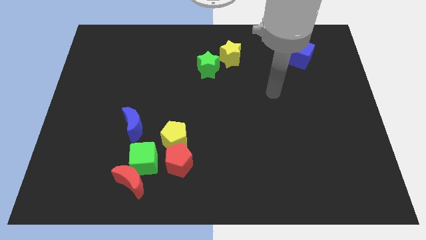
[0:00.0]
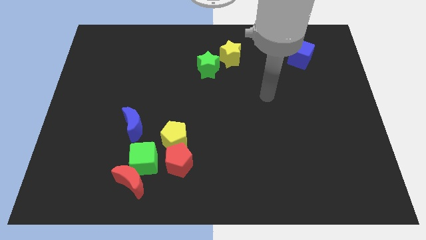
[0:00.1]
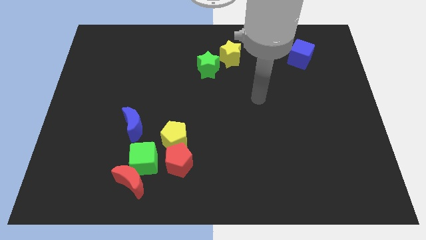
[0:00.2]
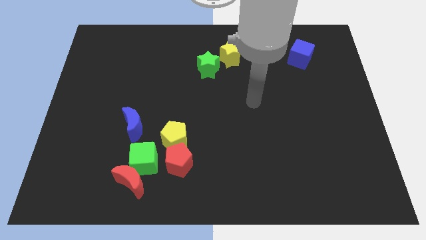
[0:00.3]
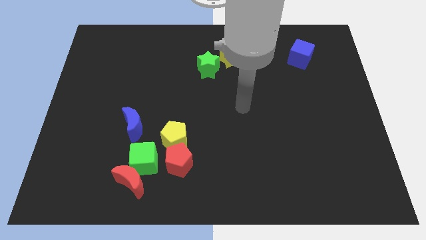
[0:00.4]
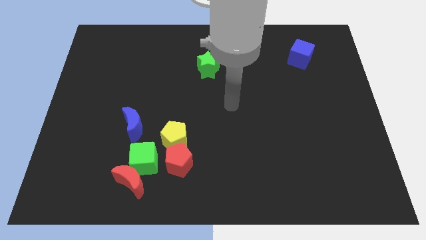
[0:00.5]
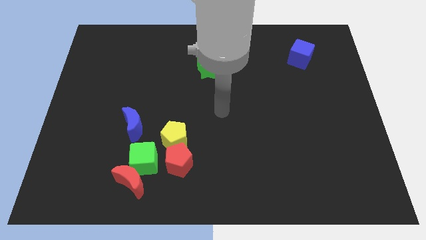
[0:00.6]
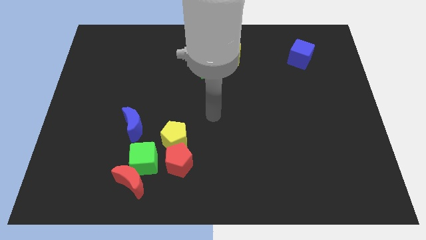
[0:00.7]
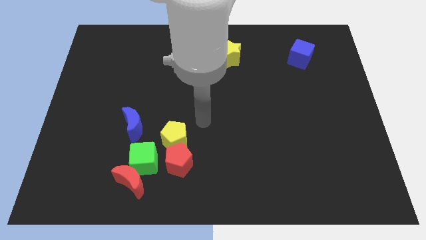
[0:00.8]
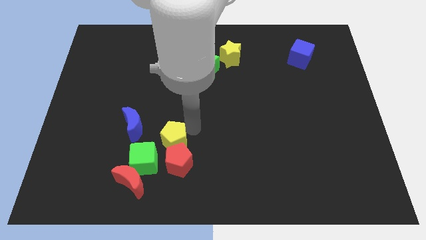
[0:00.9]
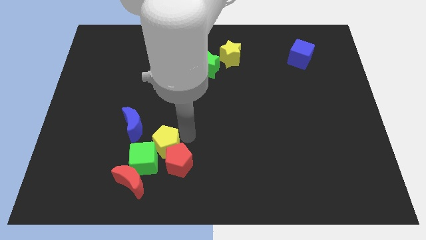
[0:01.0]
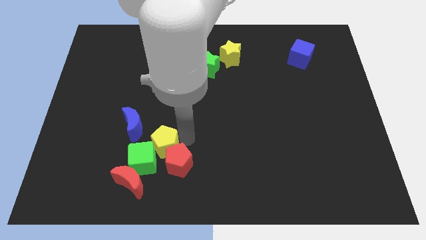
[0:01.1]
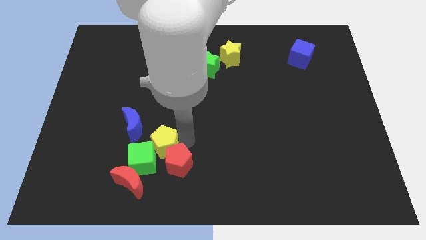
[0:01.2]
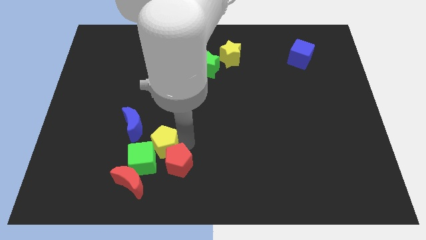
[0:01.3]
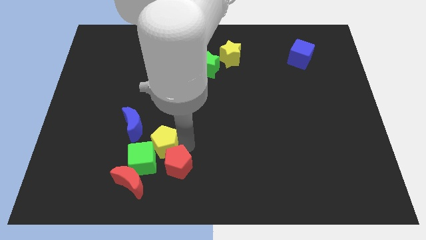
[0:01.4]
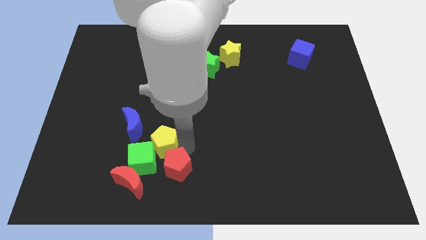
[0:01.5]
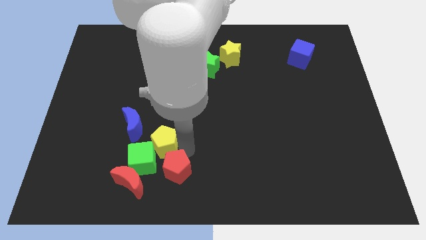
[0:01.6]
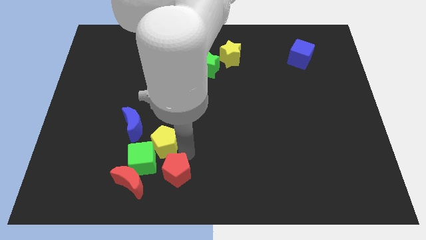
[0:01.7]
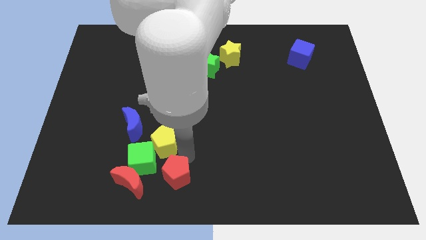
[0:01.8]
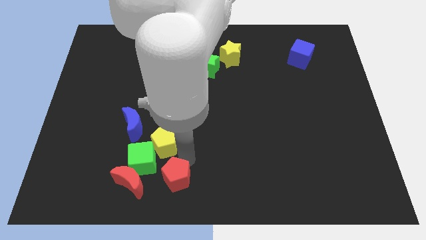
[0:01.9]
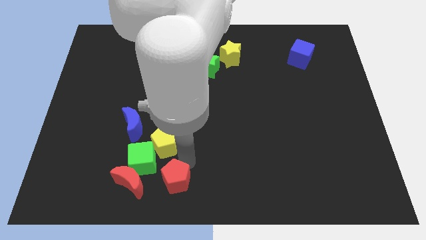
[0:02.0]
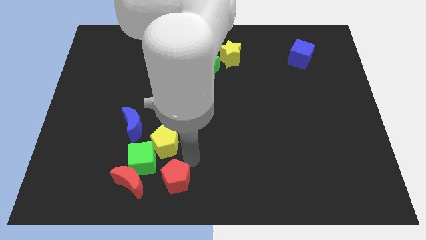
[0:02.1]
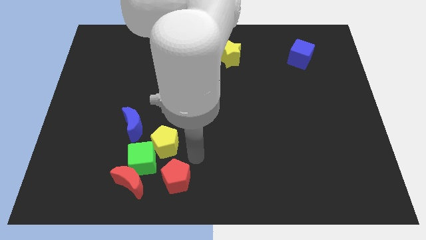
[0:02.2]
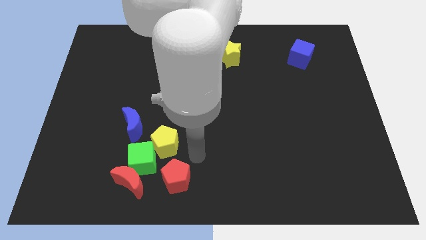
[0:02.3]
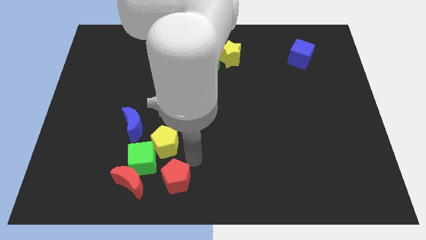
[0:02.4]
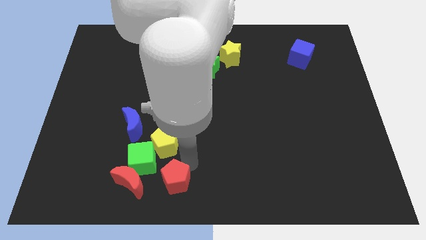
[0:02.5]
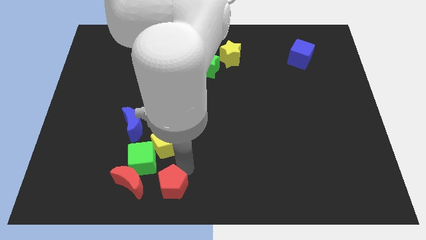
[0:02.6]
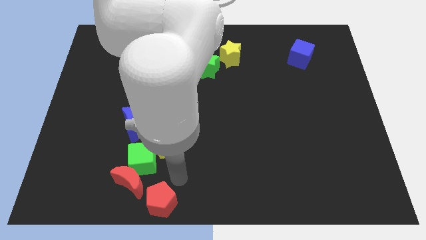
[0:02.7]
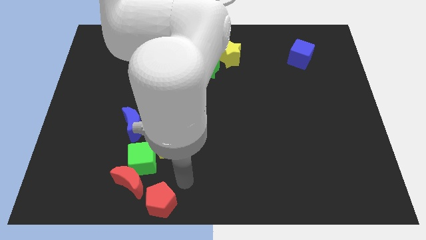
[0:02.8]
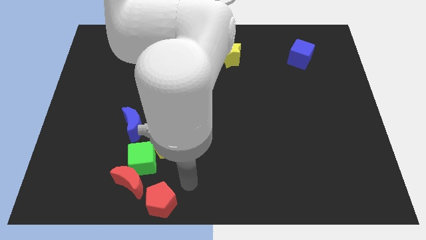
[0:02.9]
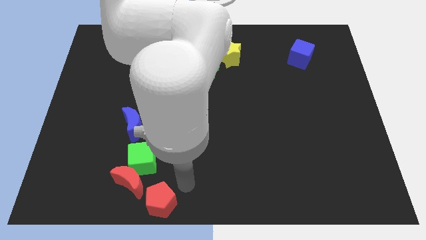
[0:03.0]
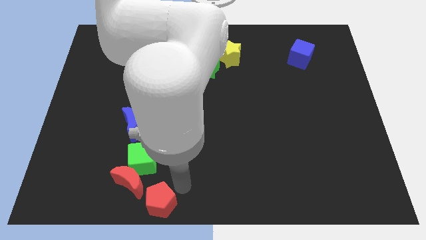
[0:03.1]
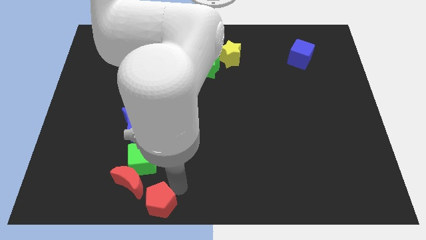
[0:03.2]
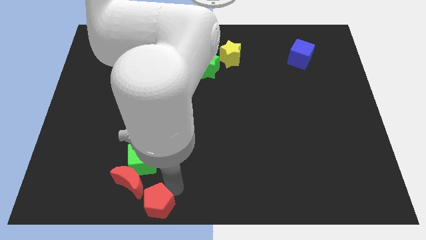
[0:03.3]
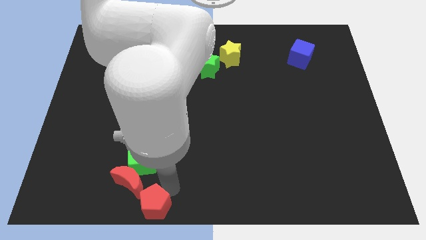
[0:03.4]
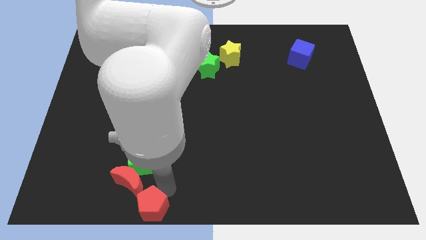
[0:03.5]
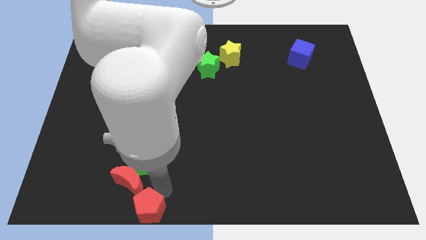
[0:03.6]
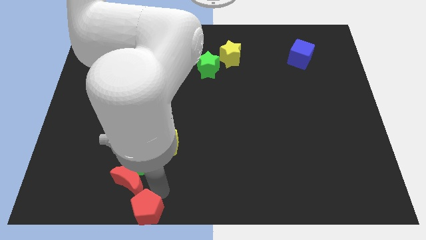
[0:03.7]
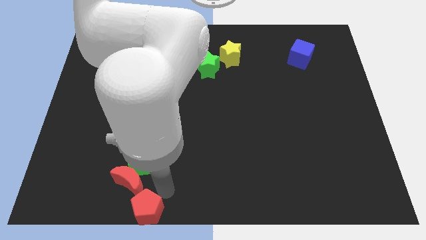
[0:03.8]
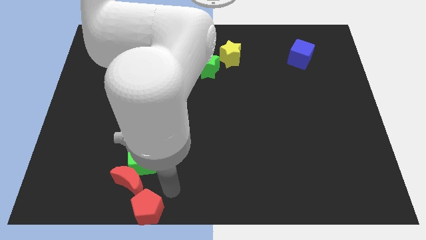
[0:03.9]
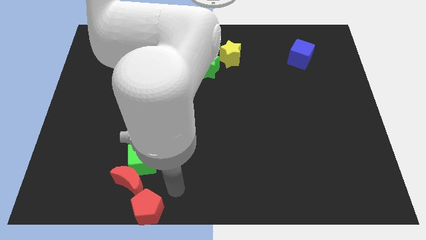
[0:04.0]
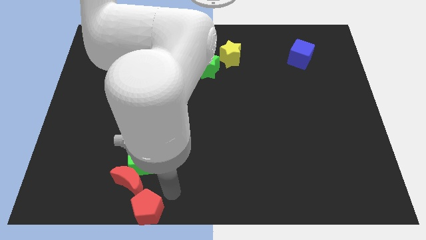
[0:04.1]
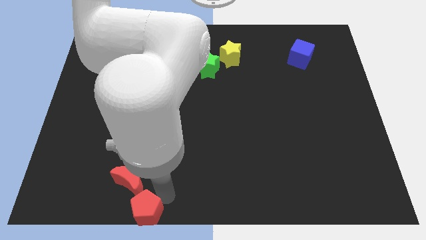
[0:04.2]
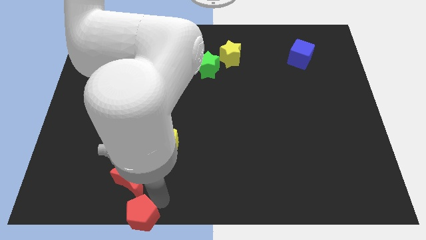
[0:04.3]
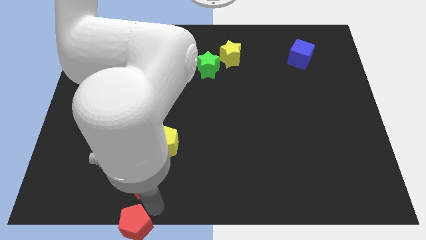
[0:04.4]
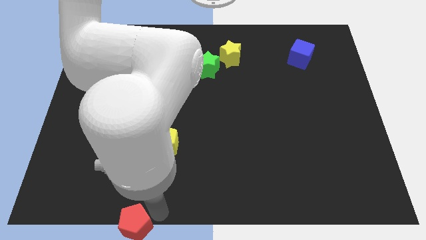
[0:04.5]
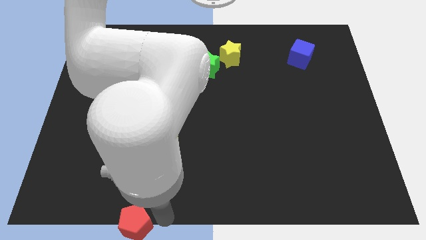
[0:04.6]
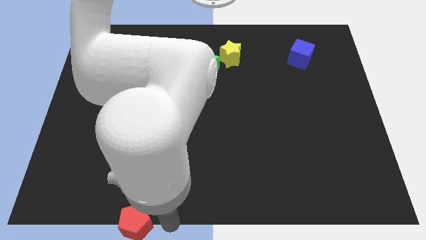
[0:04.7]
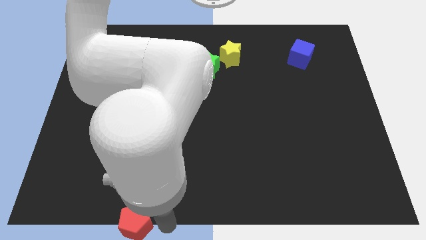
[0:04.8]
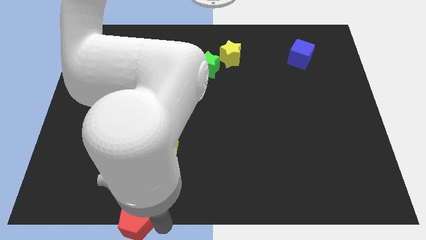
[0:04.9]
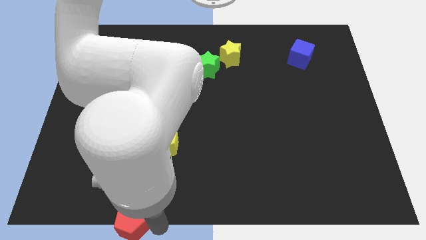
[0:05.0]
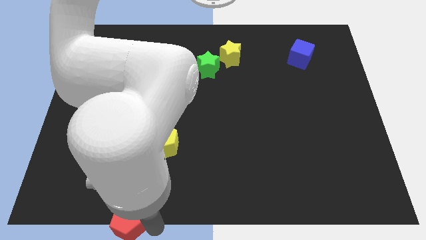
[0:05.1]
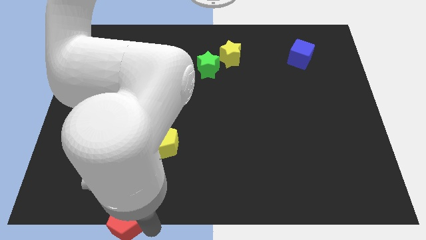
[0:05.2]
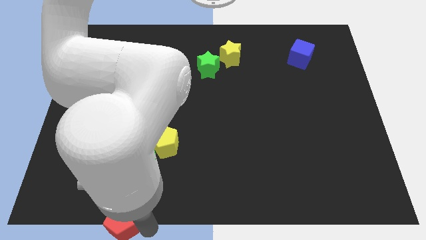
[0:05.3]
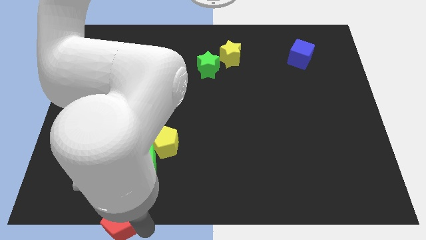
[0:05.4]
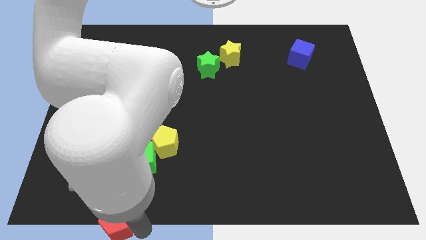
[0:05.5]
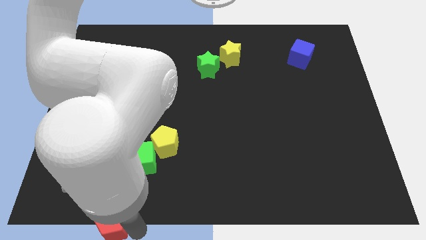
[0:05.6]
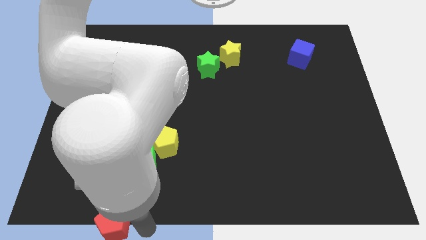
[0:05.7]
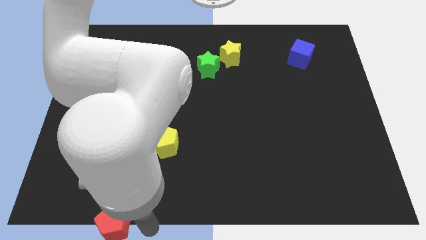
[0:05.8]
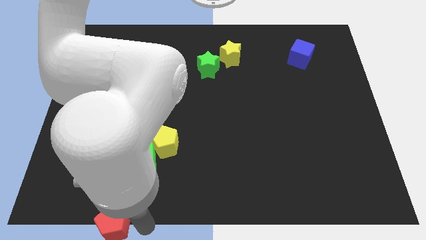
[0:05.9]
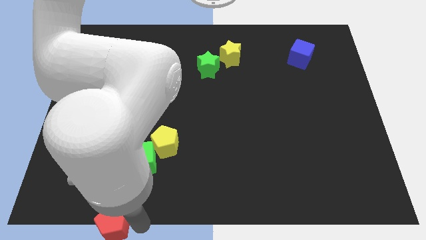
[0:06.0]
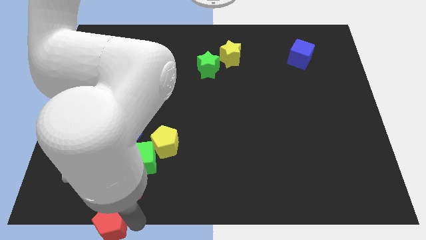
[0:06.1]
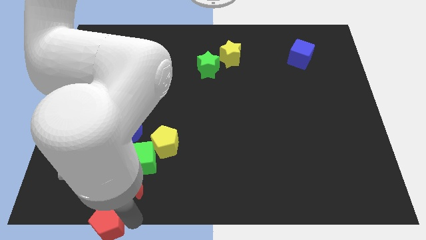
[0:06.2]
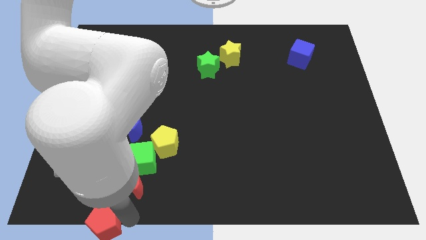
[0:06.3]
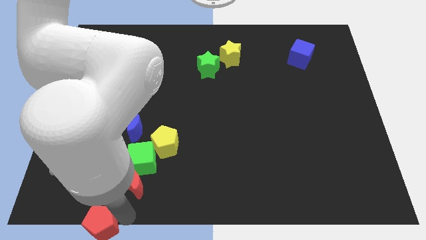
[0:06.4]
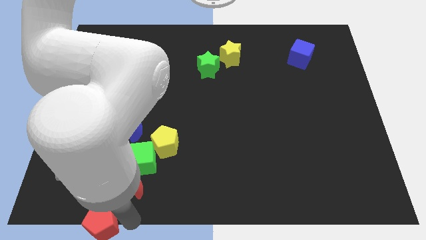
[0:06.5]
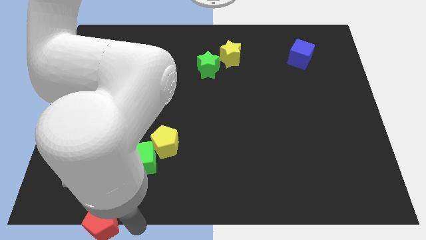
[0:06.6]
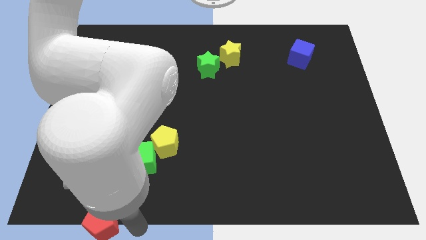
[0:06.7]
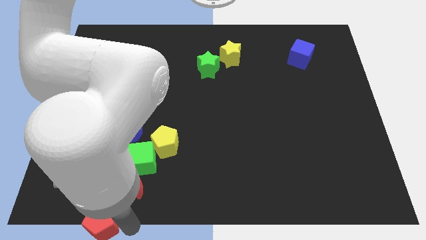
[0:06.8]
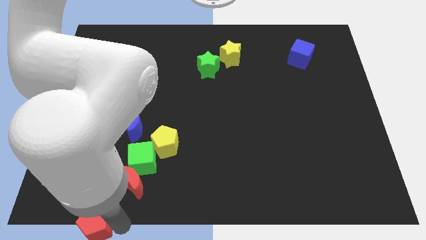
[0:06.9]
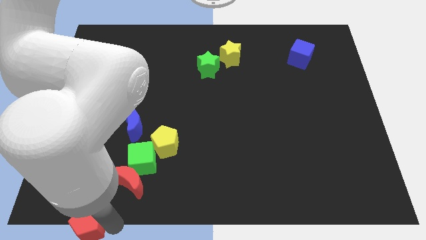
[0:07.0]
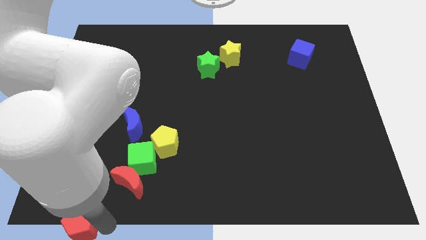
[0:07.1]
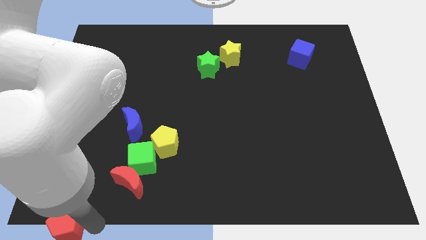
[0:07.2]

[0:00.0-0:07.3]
move the red pentagon to the bottom left corner
